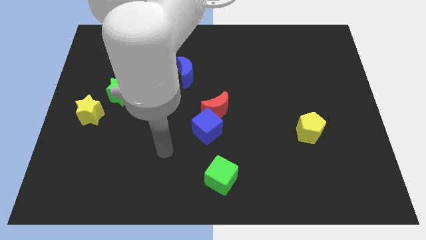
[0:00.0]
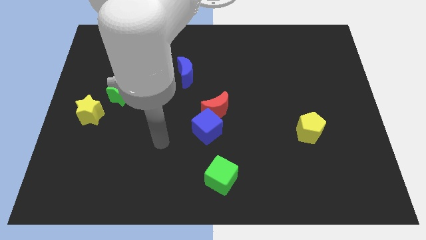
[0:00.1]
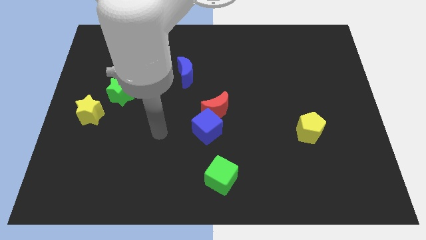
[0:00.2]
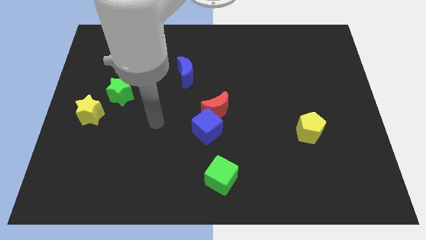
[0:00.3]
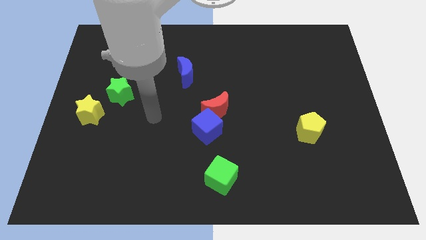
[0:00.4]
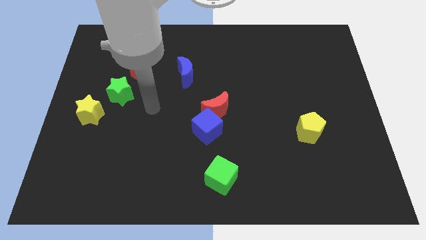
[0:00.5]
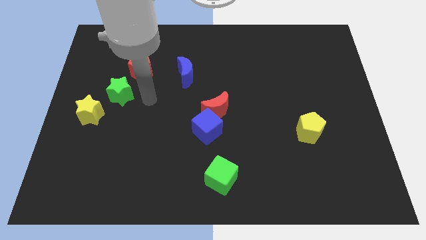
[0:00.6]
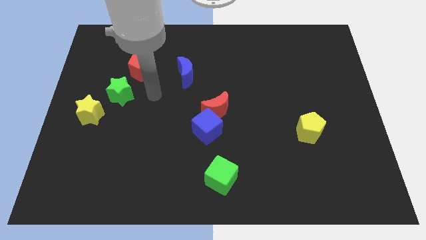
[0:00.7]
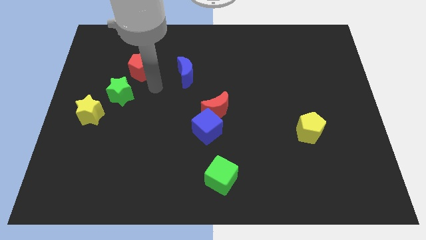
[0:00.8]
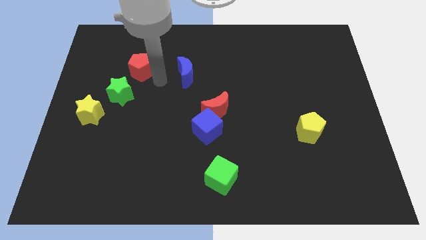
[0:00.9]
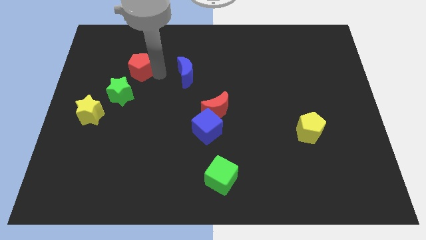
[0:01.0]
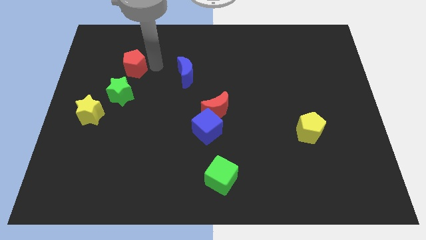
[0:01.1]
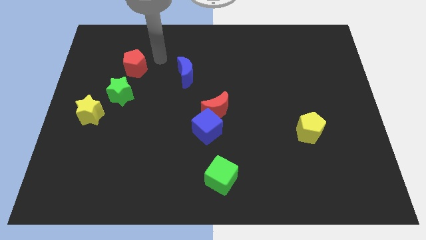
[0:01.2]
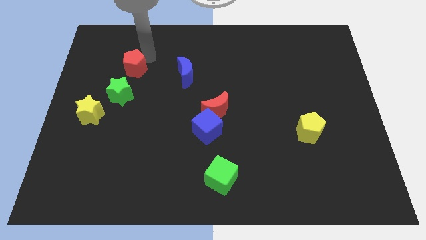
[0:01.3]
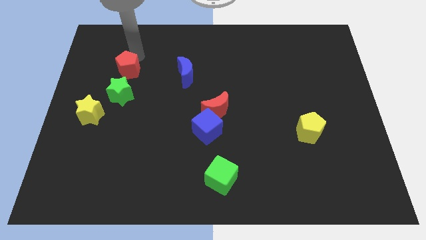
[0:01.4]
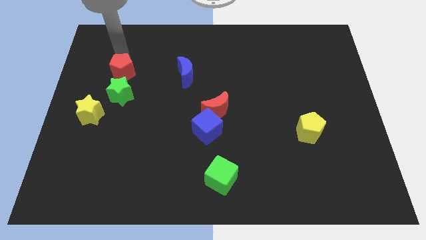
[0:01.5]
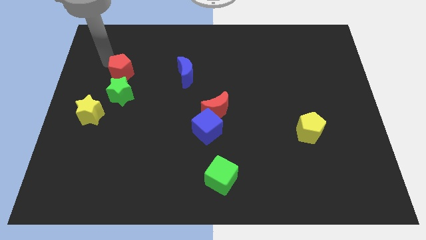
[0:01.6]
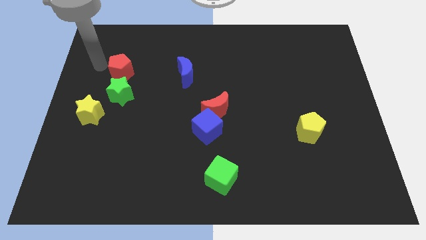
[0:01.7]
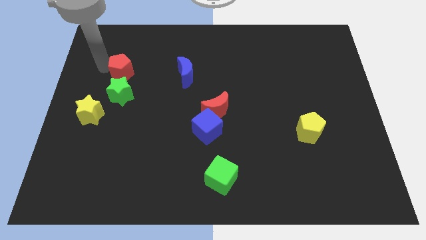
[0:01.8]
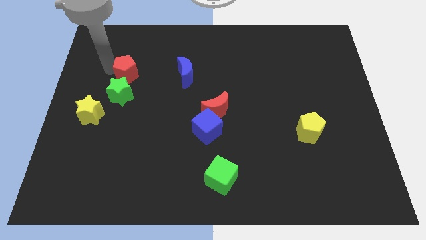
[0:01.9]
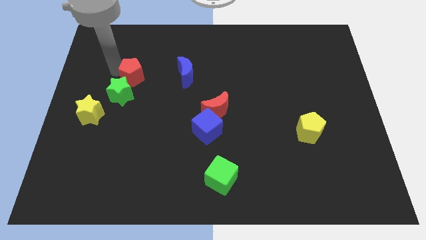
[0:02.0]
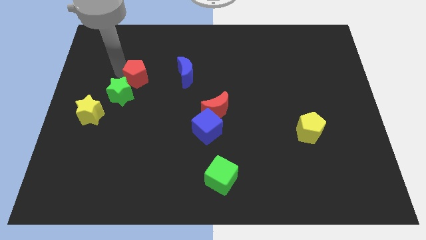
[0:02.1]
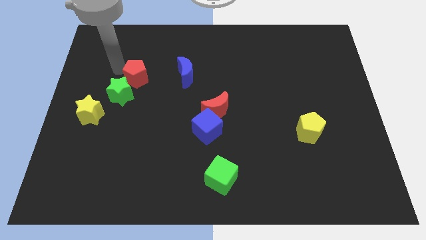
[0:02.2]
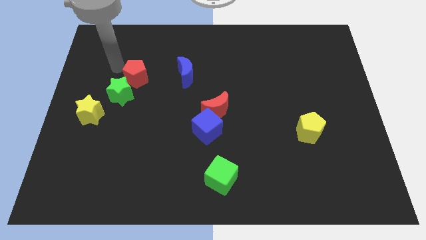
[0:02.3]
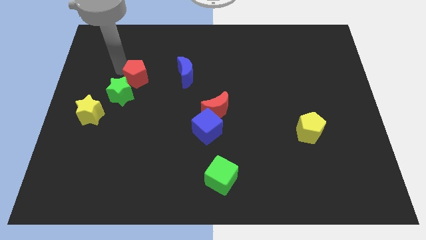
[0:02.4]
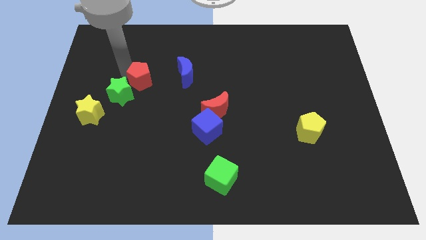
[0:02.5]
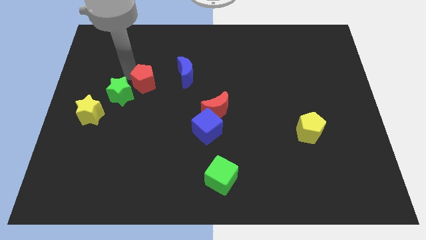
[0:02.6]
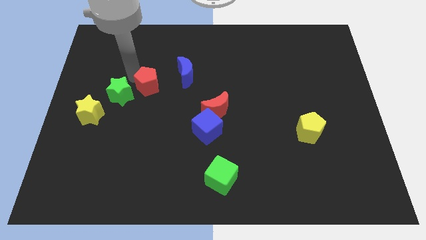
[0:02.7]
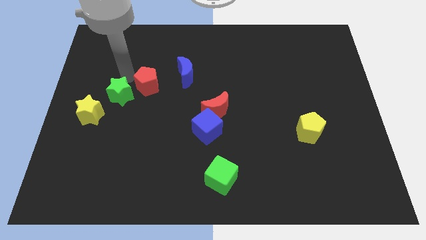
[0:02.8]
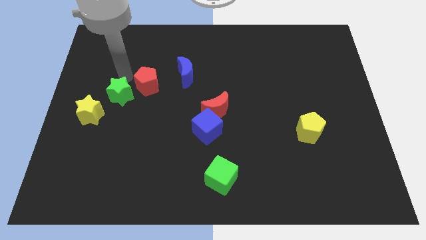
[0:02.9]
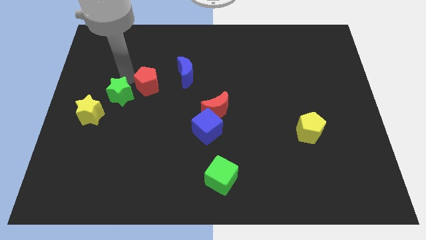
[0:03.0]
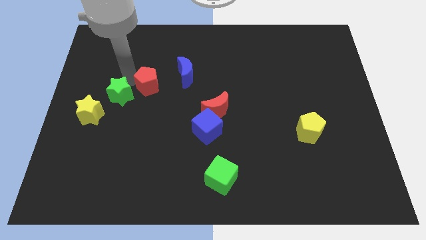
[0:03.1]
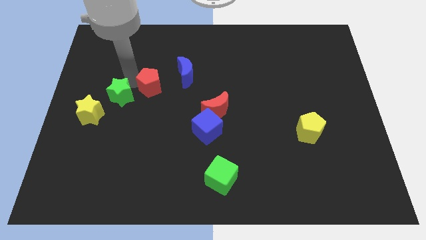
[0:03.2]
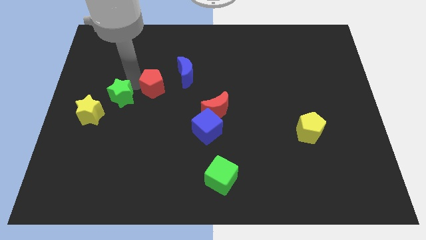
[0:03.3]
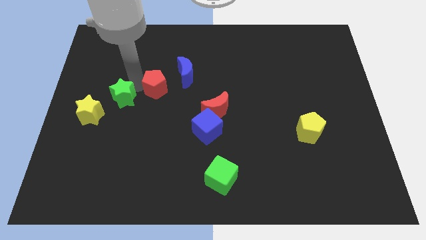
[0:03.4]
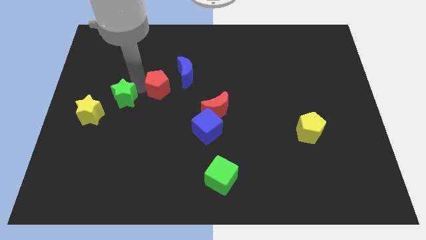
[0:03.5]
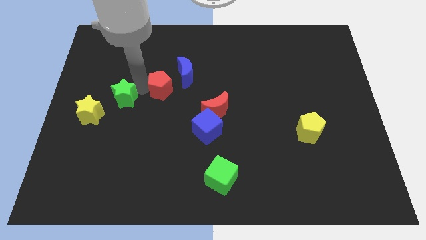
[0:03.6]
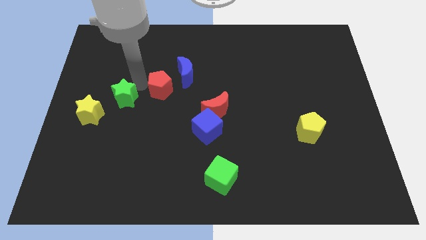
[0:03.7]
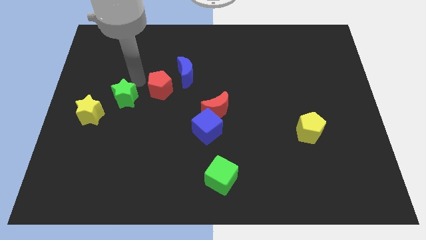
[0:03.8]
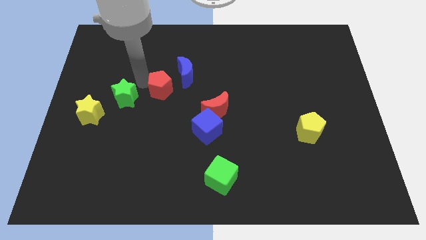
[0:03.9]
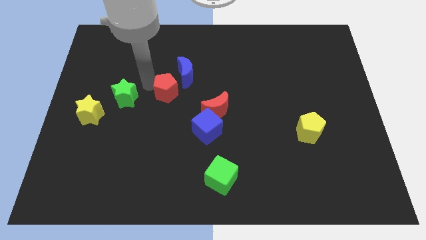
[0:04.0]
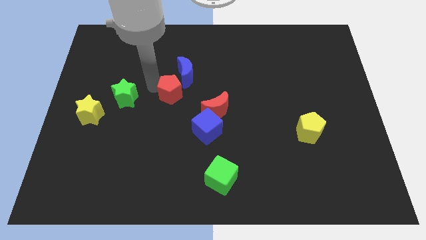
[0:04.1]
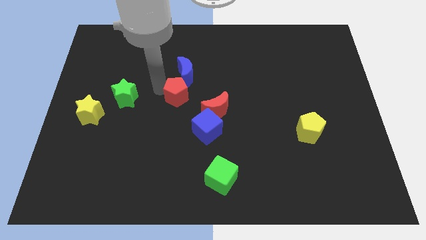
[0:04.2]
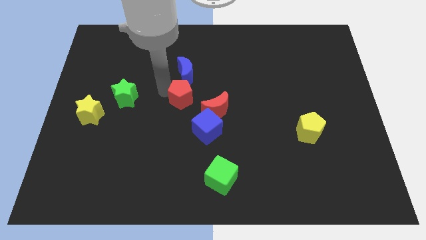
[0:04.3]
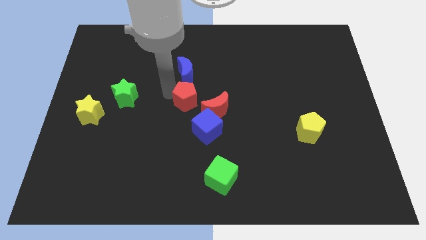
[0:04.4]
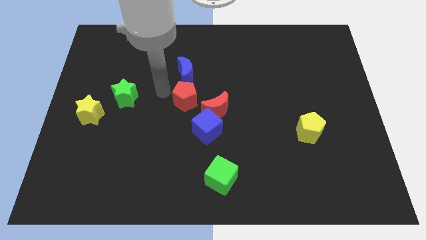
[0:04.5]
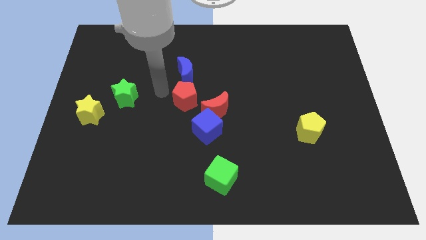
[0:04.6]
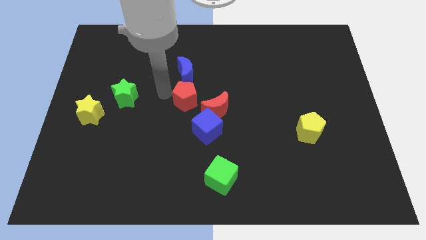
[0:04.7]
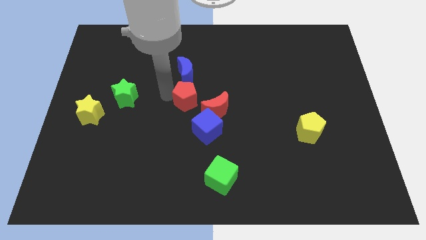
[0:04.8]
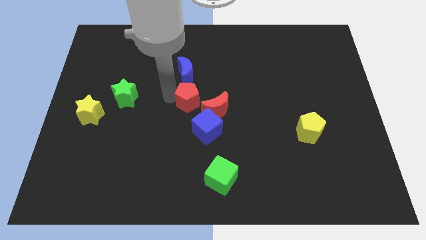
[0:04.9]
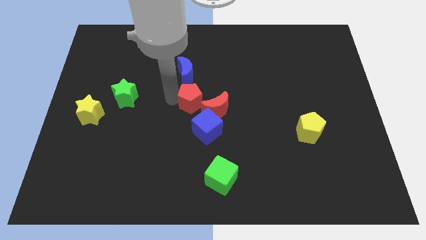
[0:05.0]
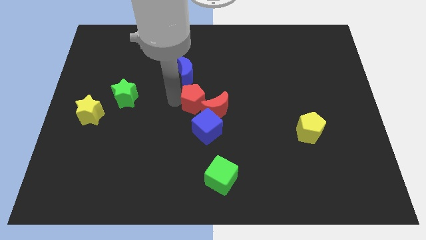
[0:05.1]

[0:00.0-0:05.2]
slide the red pentagon to the red moon

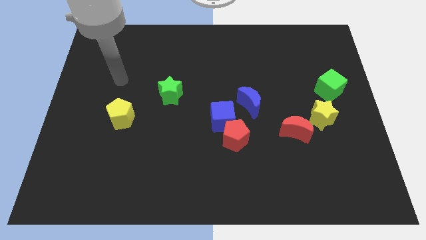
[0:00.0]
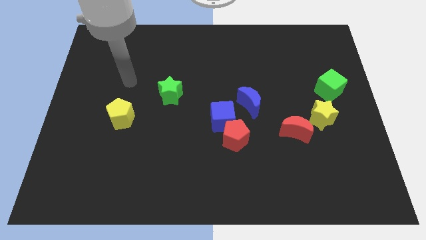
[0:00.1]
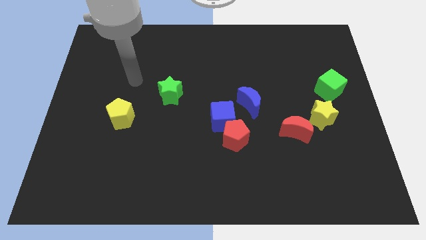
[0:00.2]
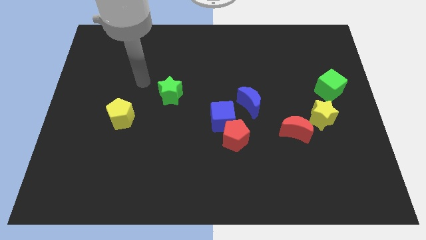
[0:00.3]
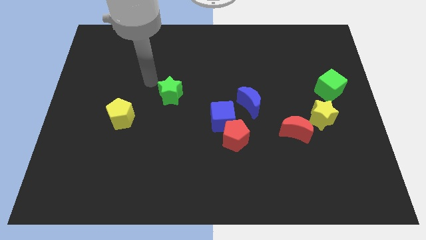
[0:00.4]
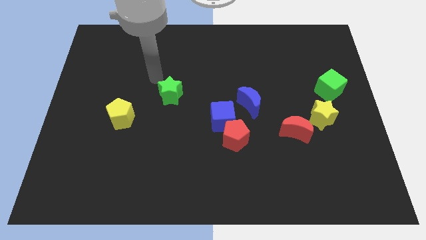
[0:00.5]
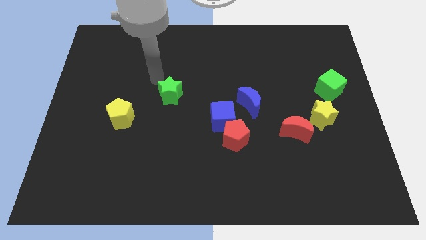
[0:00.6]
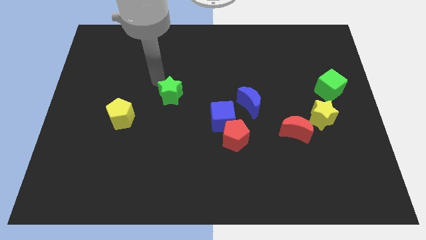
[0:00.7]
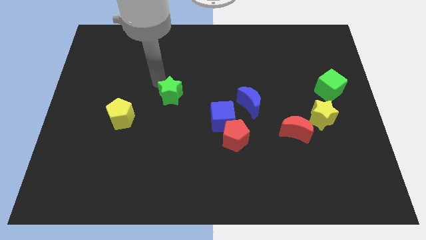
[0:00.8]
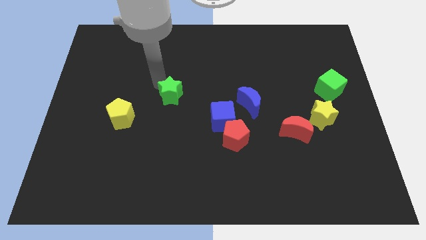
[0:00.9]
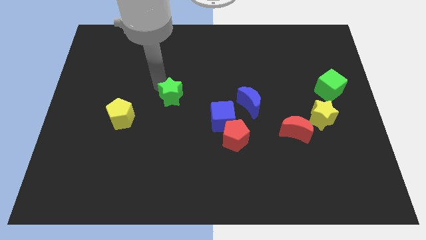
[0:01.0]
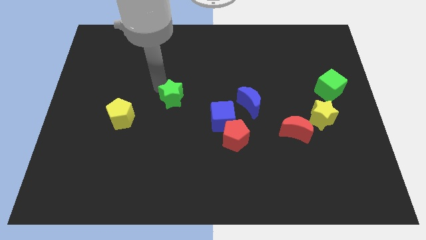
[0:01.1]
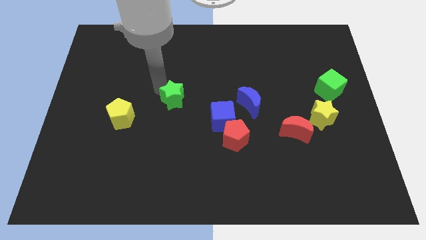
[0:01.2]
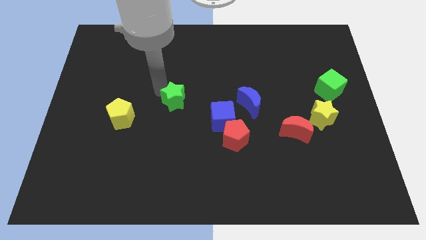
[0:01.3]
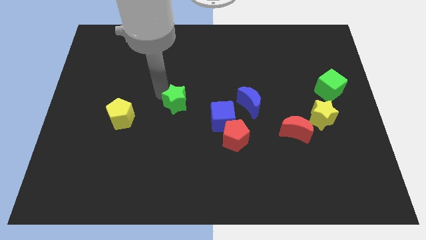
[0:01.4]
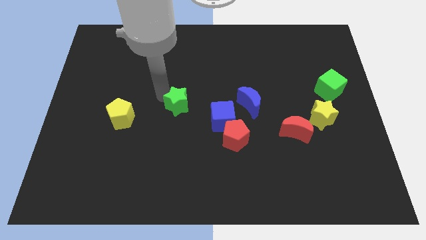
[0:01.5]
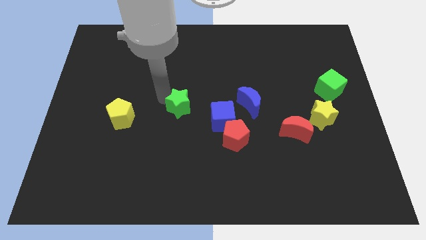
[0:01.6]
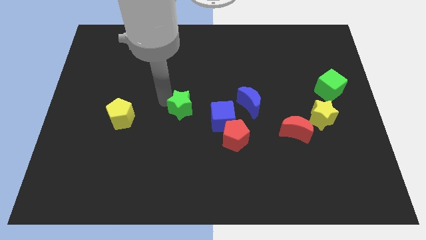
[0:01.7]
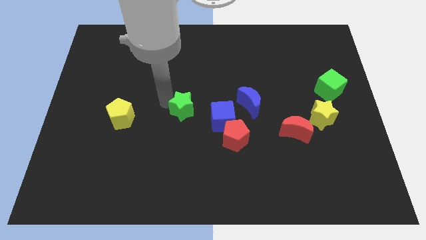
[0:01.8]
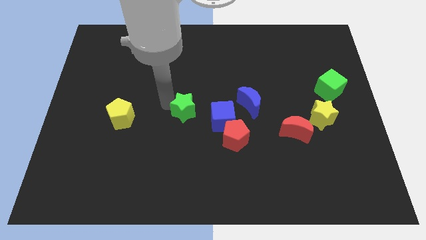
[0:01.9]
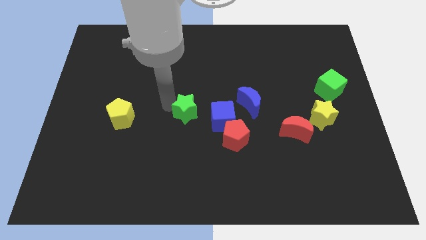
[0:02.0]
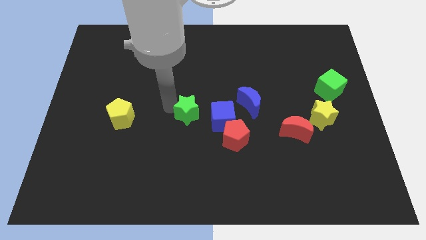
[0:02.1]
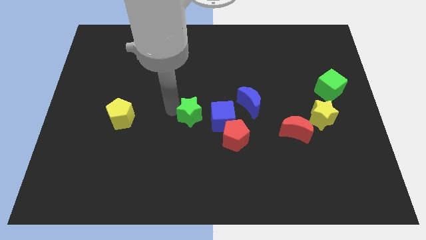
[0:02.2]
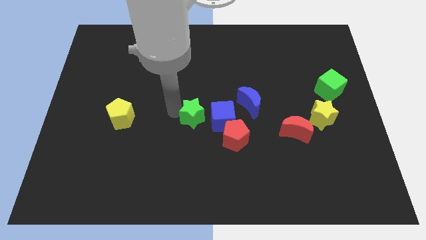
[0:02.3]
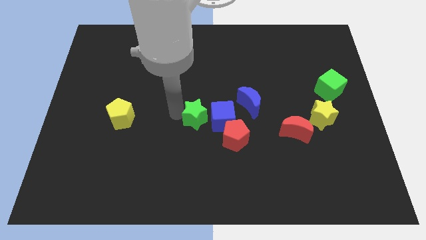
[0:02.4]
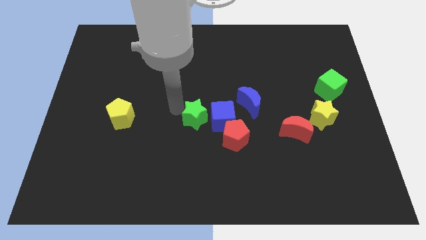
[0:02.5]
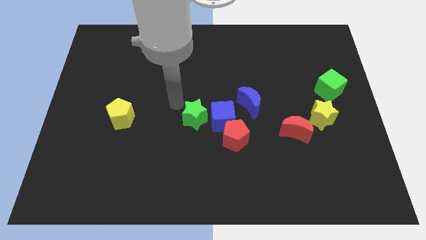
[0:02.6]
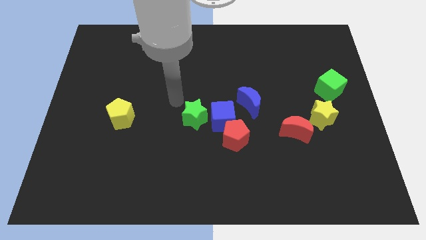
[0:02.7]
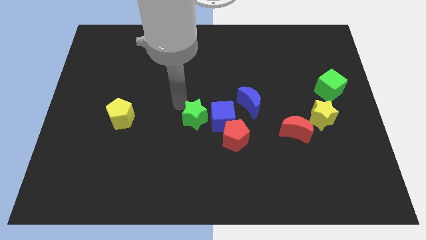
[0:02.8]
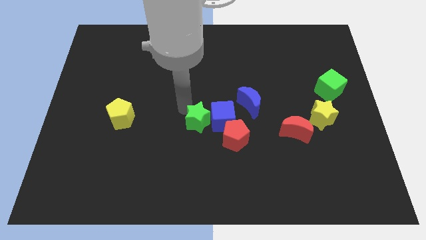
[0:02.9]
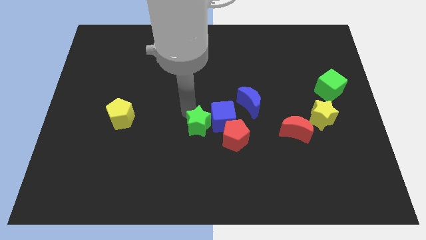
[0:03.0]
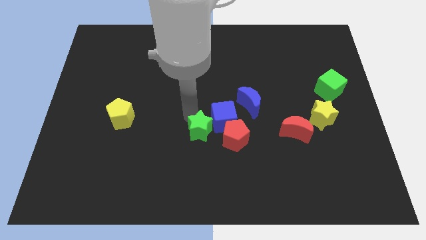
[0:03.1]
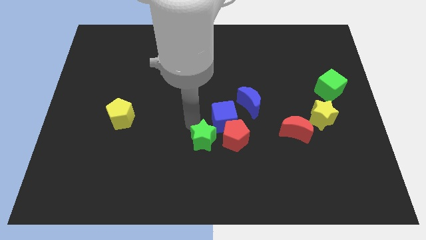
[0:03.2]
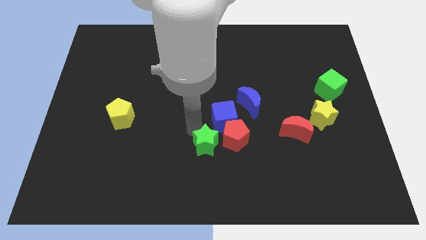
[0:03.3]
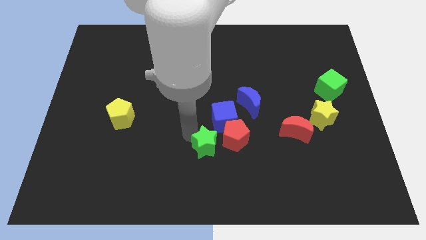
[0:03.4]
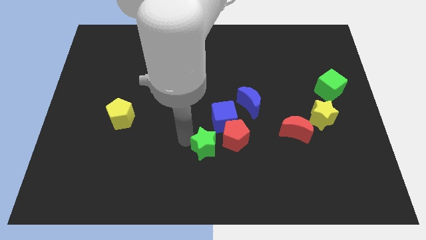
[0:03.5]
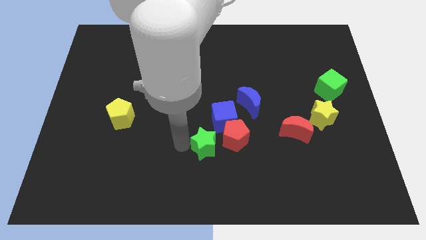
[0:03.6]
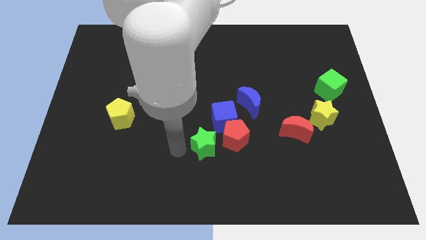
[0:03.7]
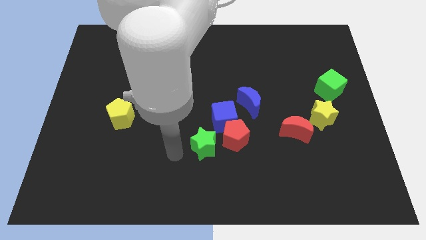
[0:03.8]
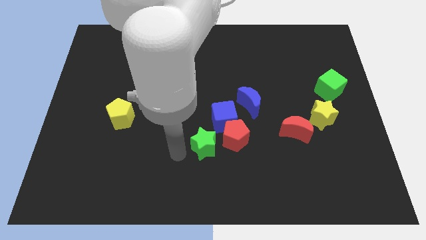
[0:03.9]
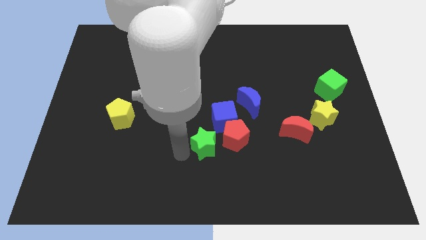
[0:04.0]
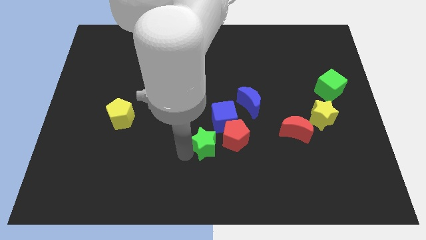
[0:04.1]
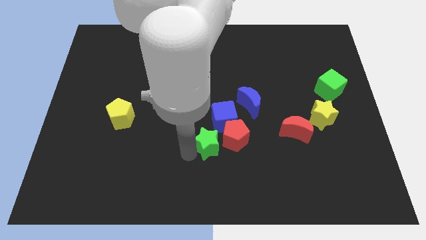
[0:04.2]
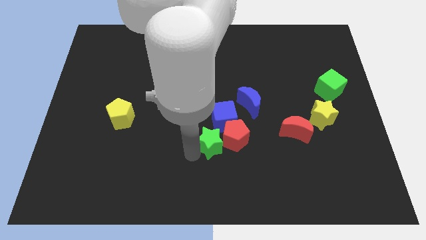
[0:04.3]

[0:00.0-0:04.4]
slide the green star to the red pentagon
